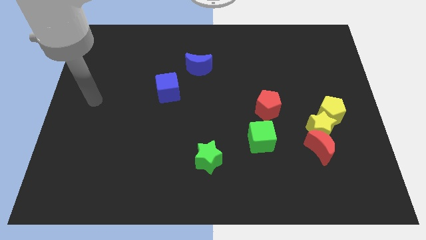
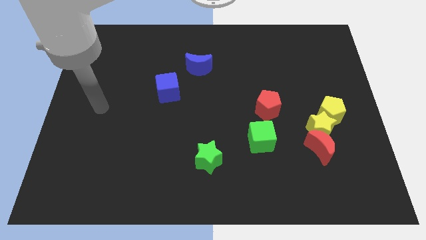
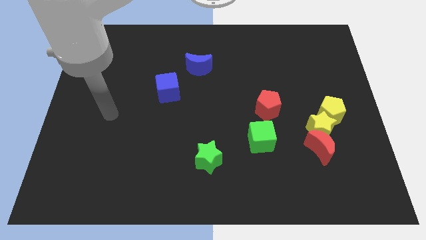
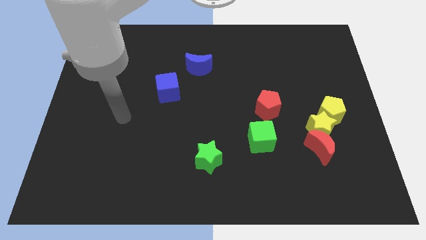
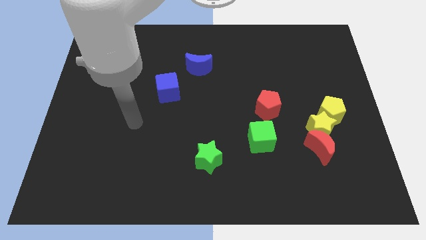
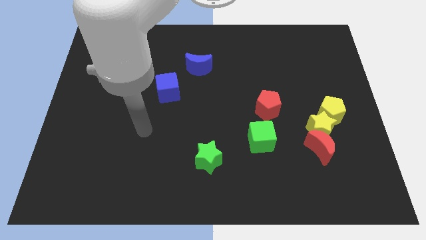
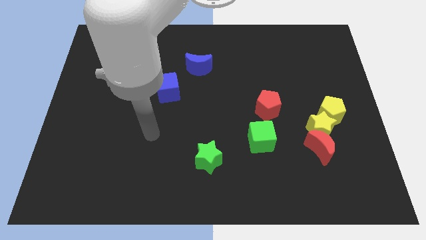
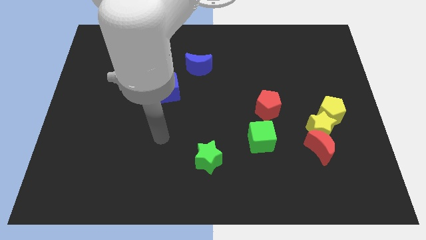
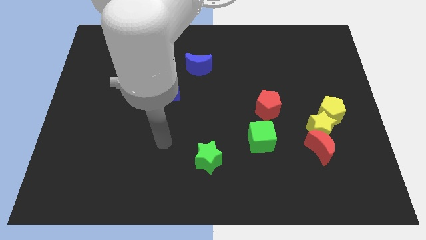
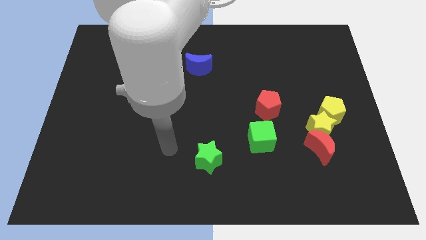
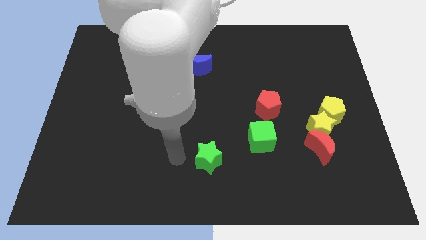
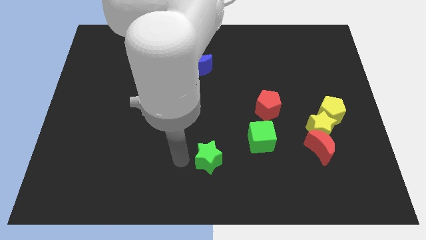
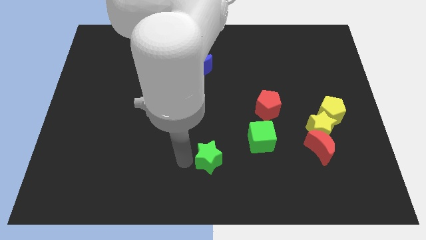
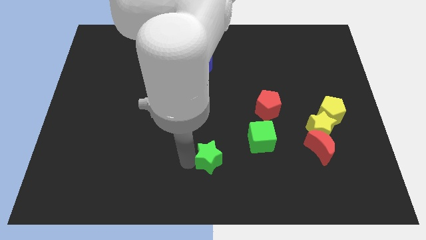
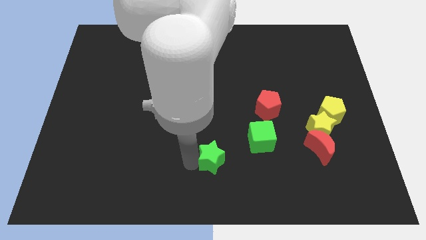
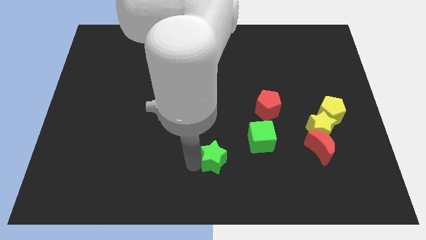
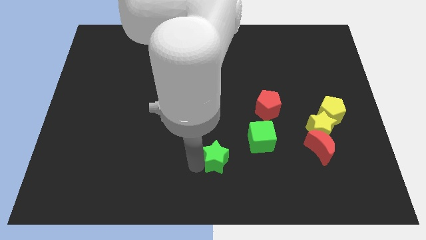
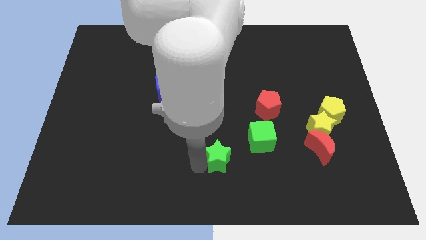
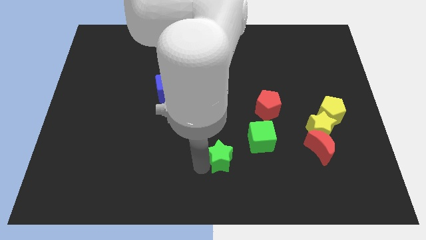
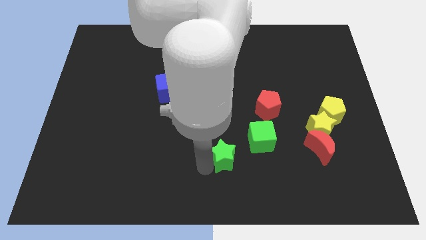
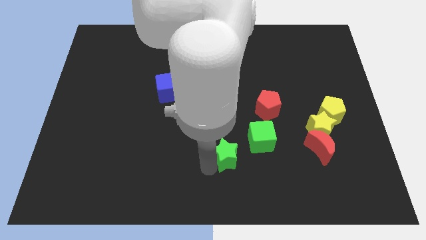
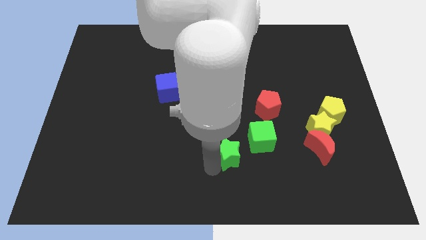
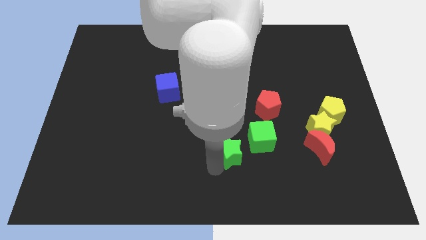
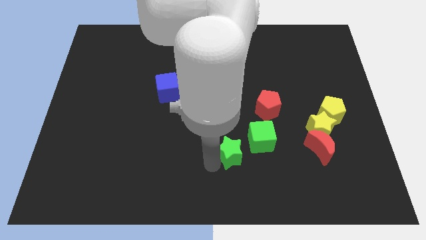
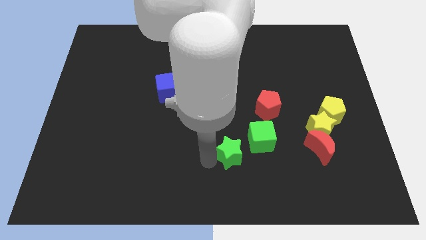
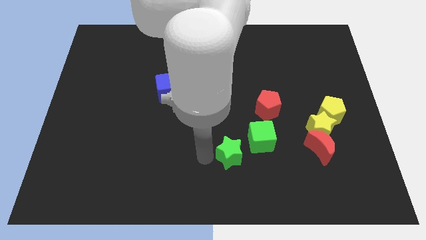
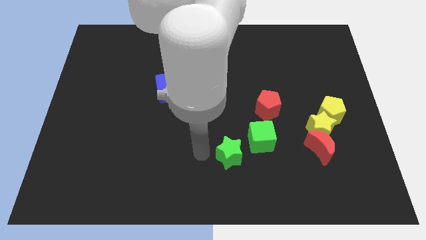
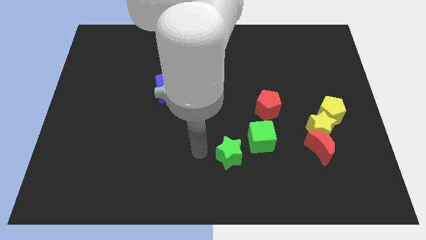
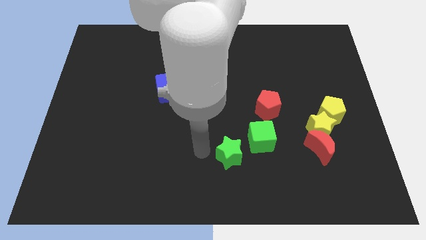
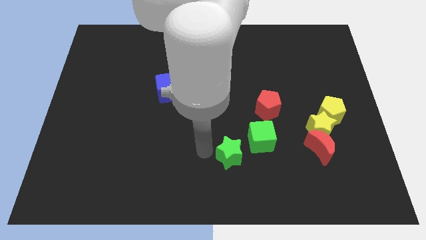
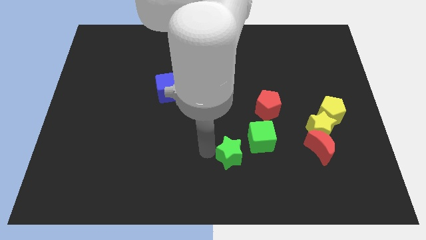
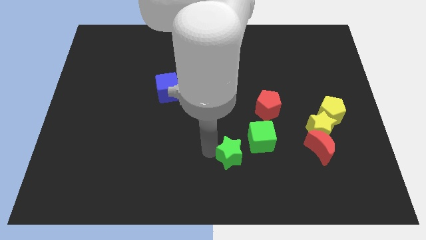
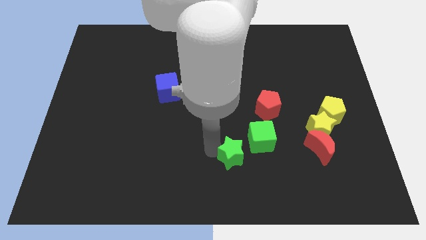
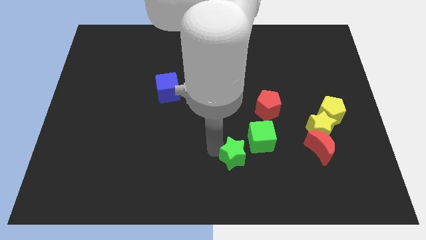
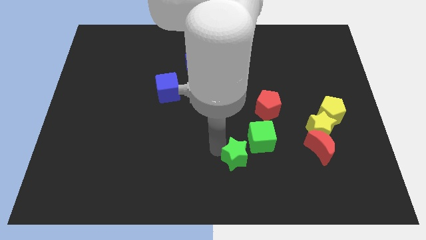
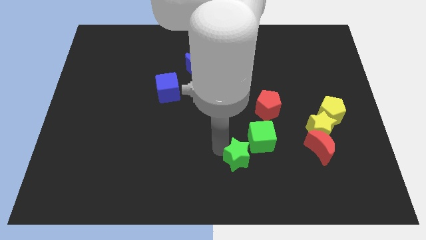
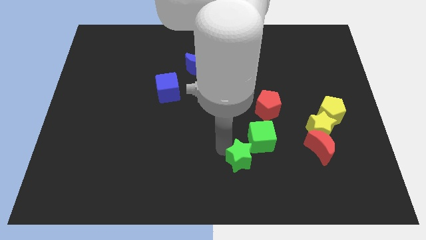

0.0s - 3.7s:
slide the green star slightly to the right

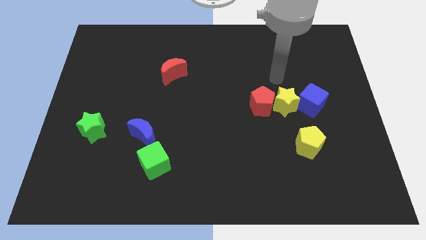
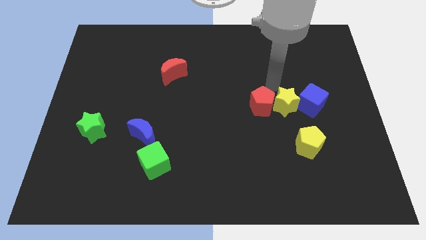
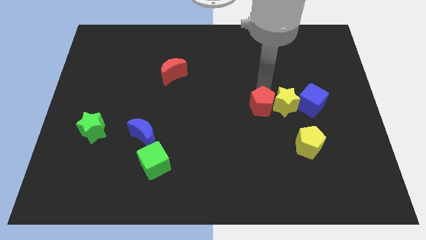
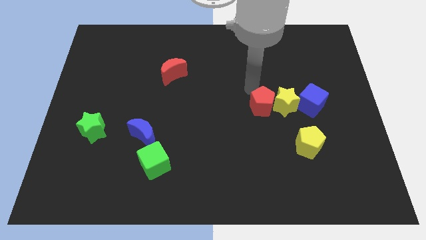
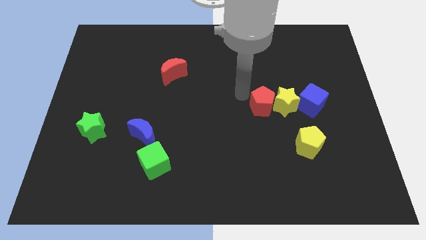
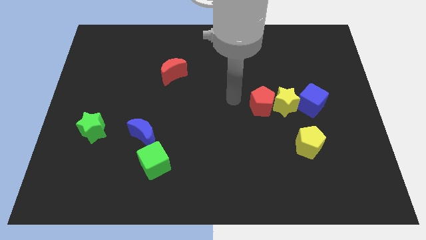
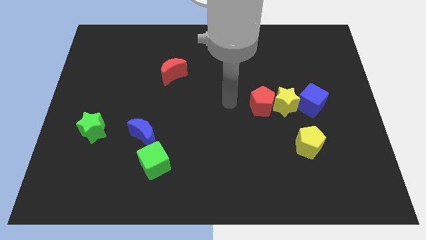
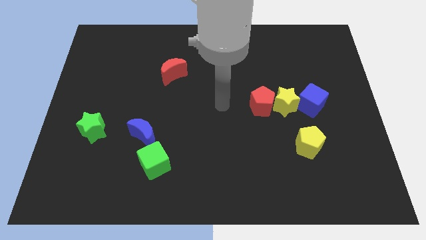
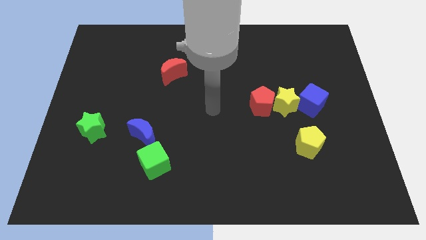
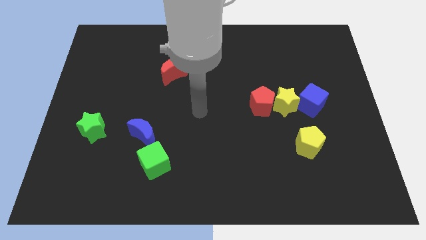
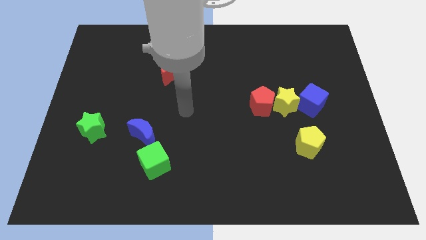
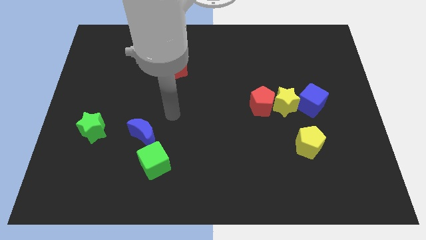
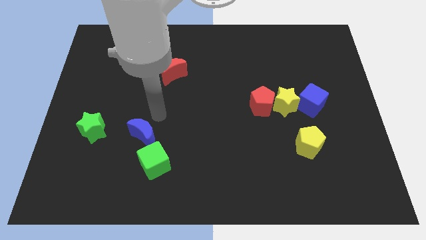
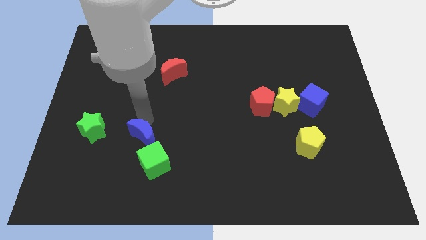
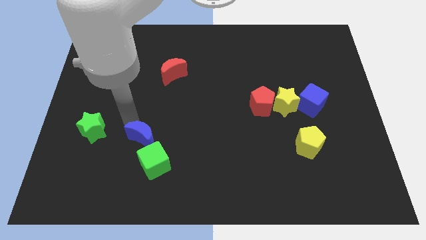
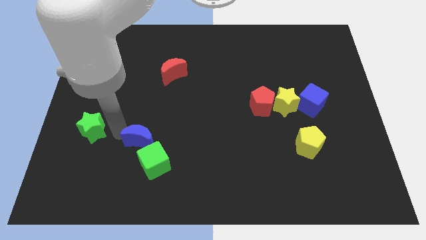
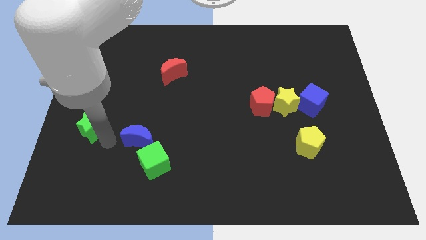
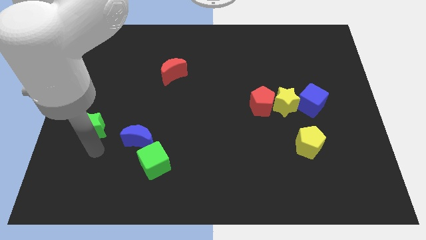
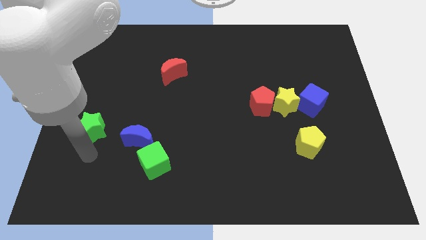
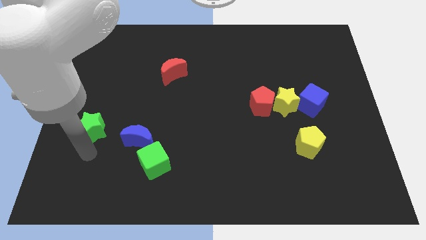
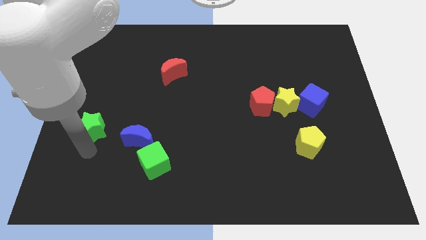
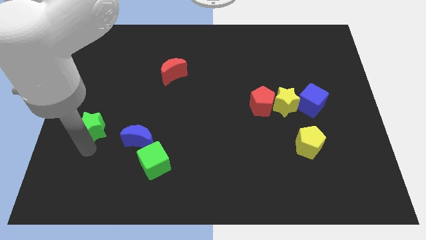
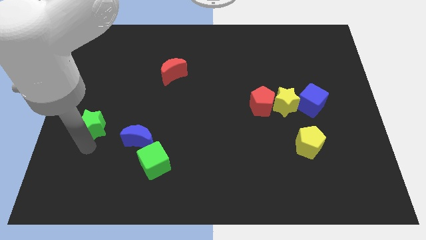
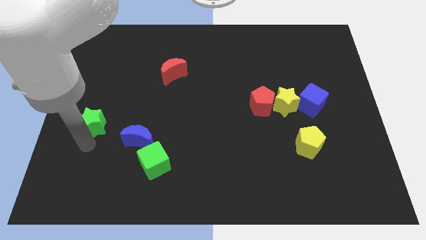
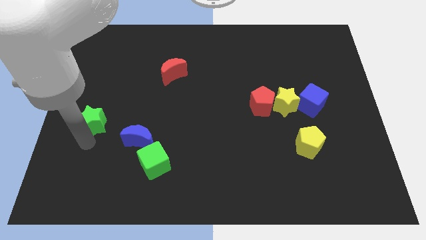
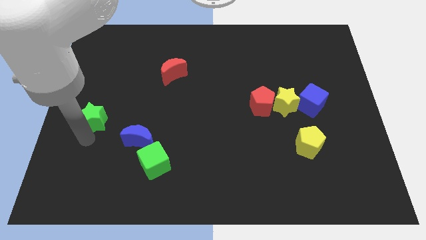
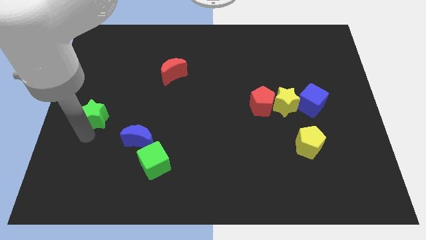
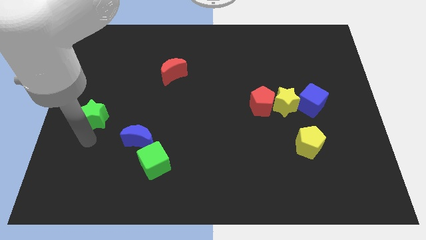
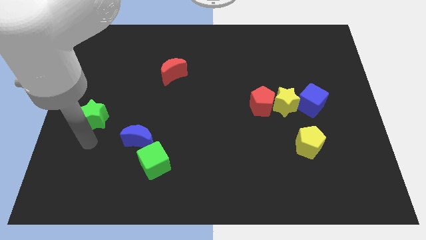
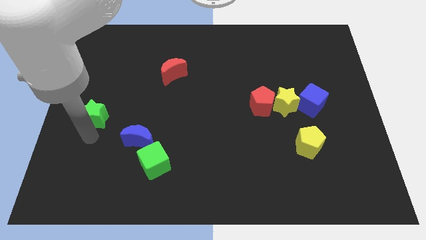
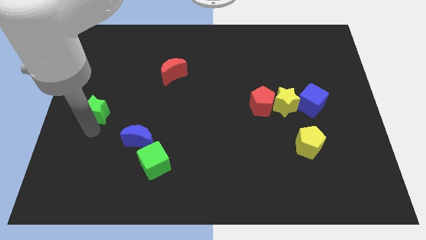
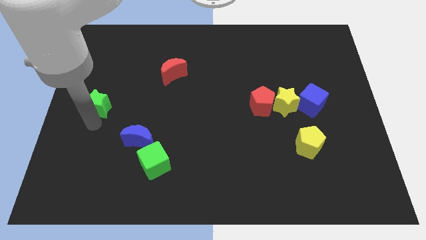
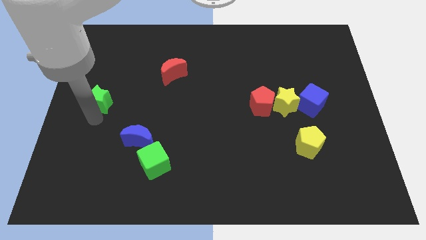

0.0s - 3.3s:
slide the green star a little upwards

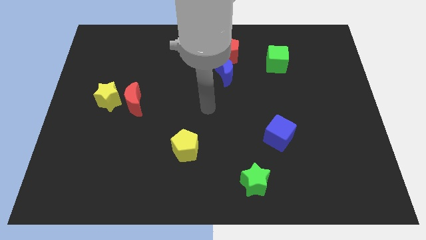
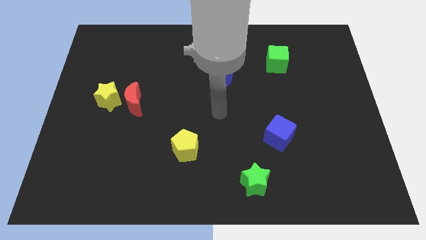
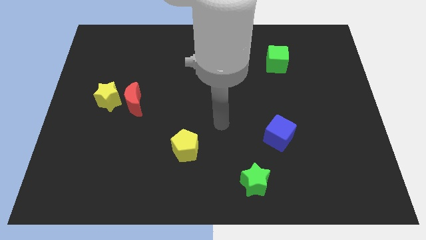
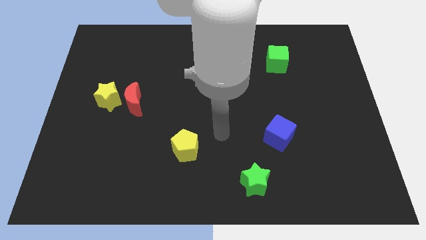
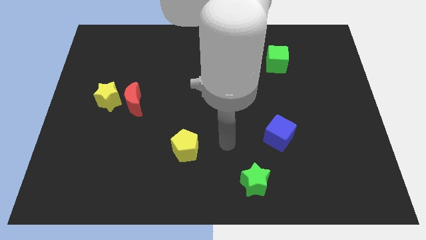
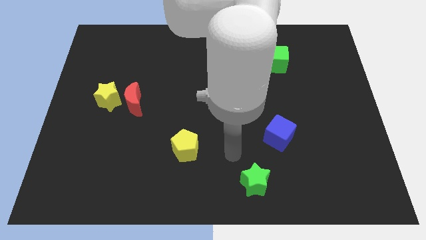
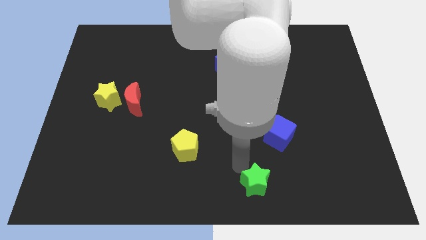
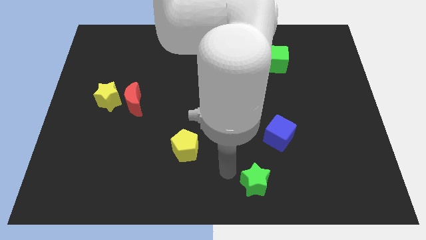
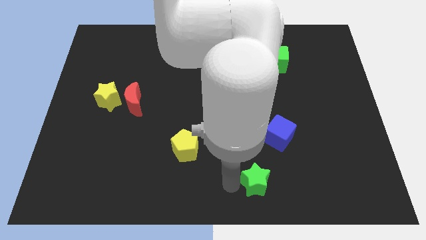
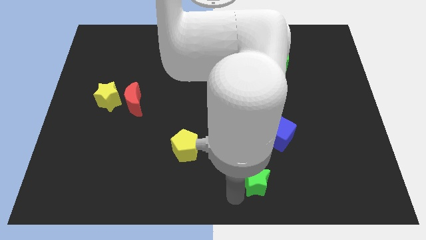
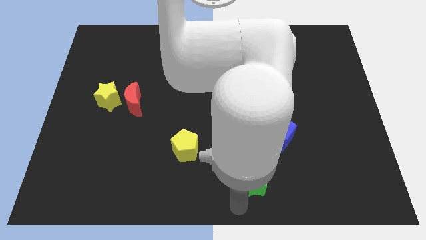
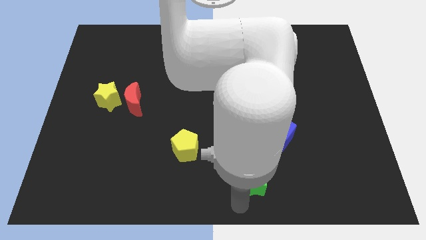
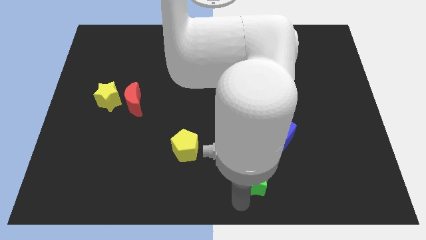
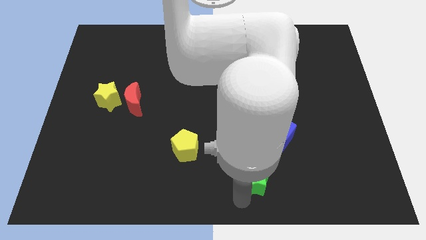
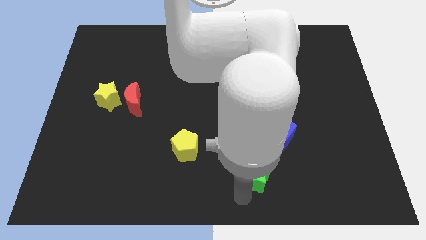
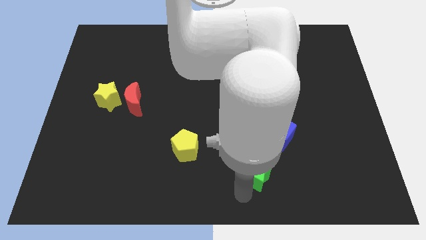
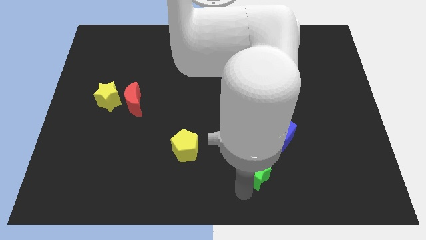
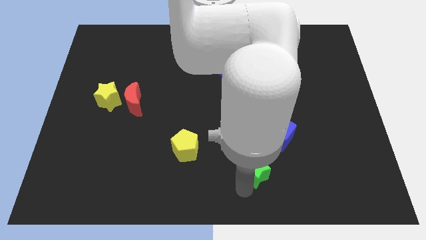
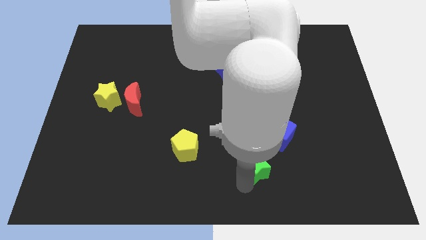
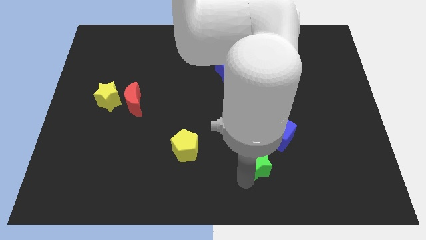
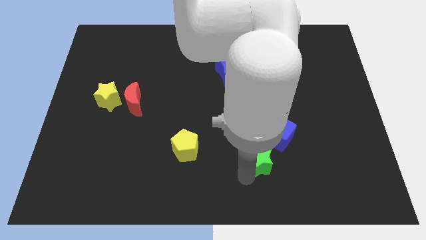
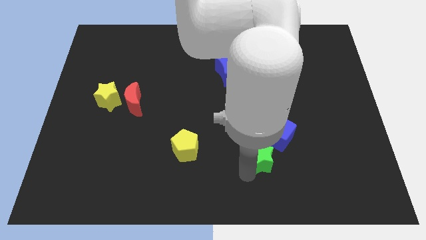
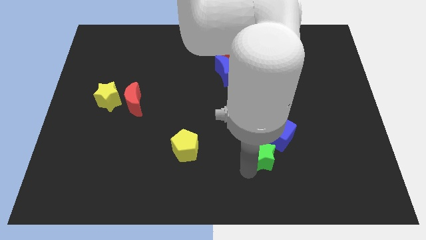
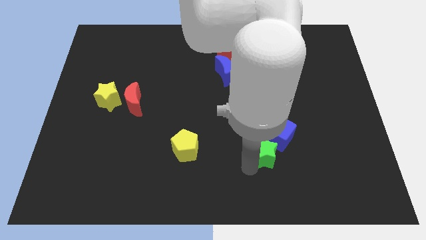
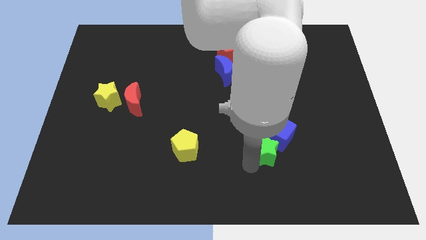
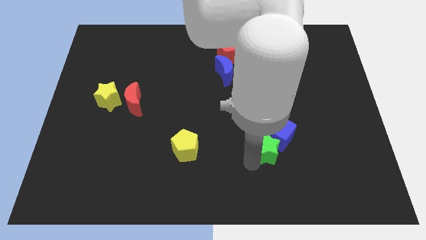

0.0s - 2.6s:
slide the green star a little bit upwards and to the right
